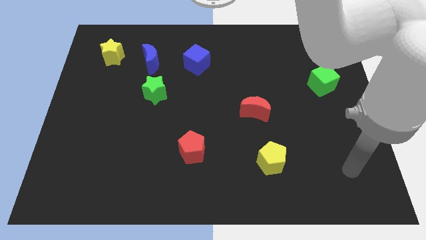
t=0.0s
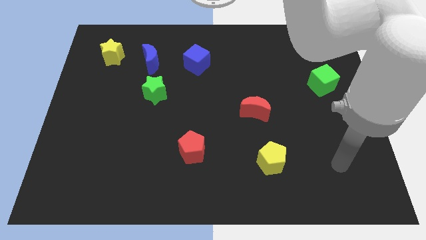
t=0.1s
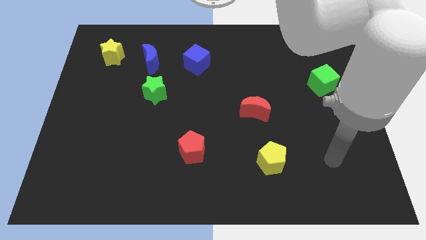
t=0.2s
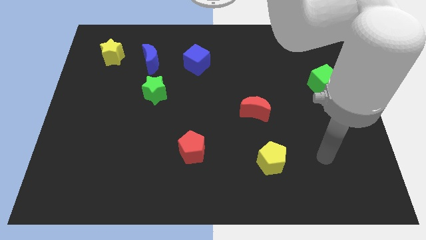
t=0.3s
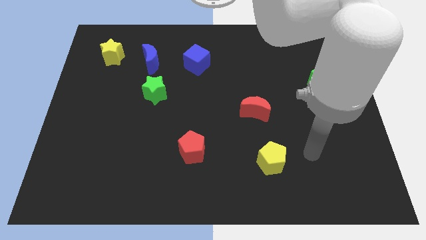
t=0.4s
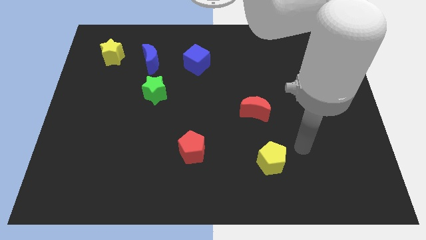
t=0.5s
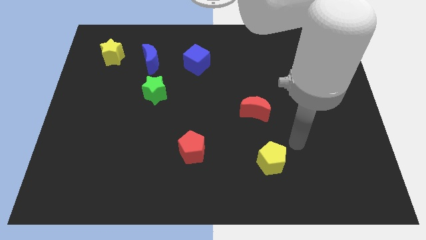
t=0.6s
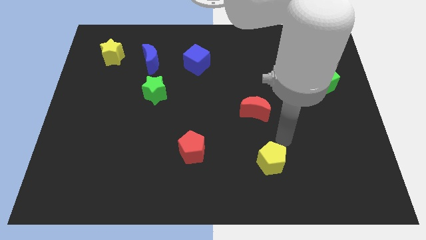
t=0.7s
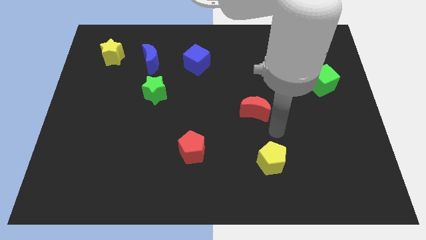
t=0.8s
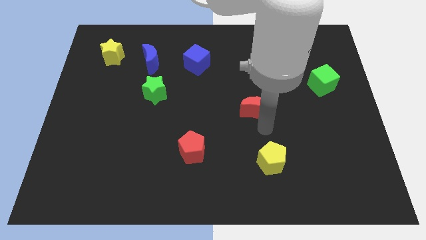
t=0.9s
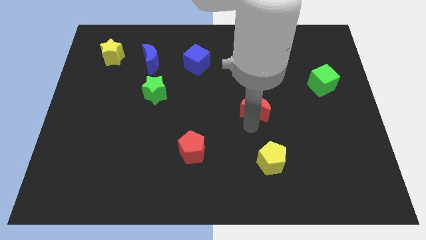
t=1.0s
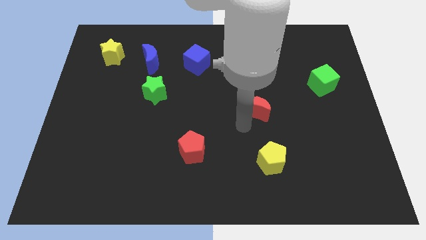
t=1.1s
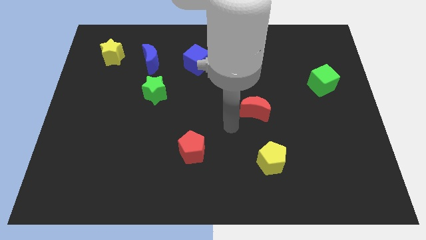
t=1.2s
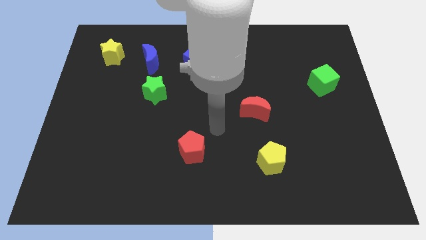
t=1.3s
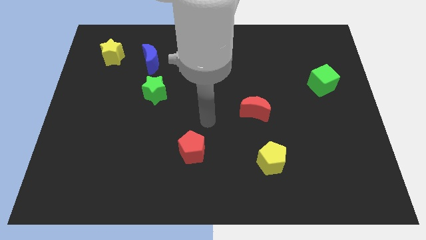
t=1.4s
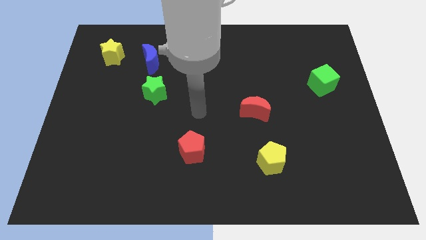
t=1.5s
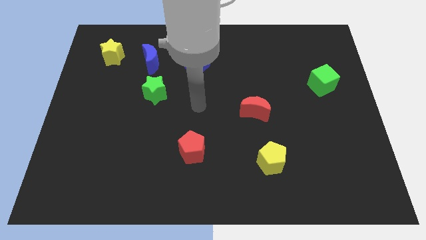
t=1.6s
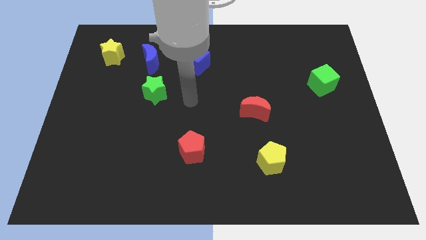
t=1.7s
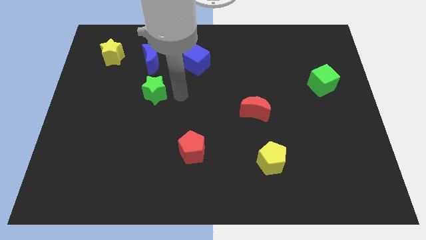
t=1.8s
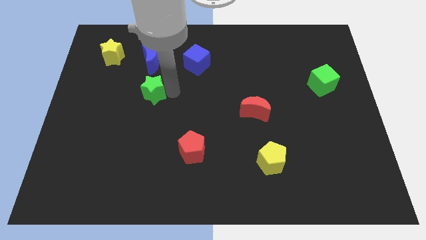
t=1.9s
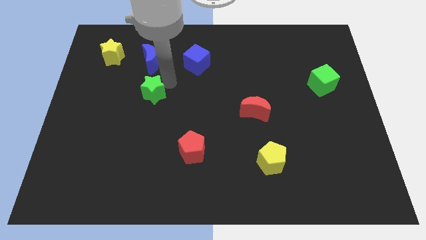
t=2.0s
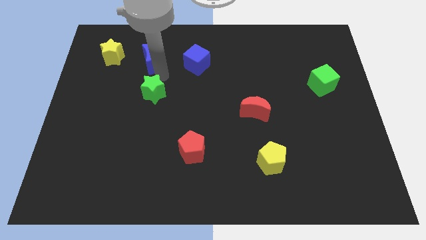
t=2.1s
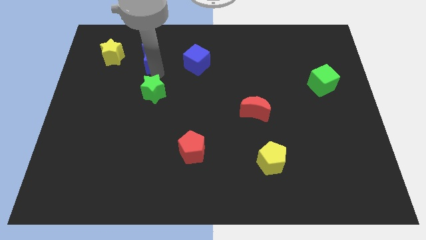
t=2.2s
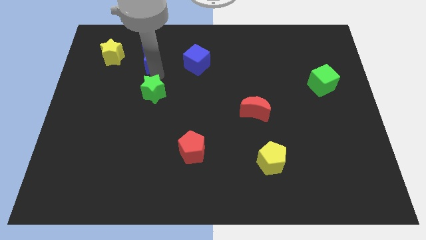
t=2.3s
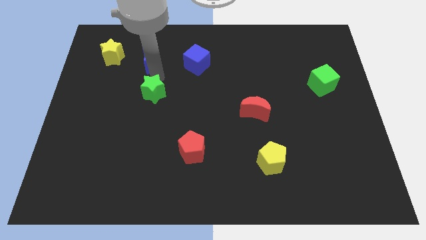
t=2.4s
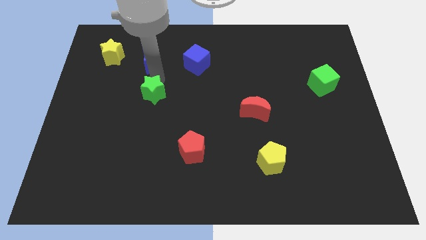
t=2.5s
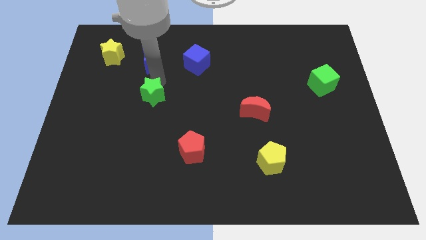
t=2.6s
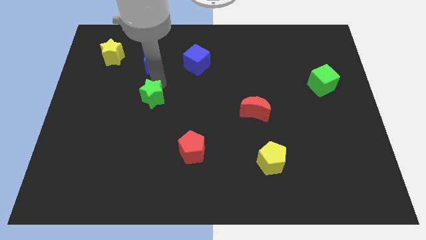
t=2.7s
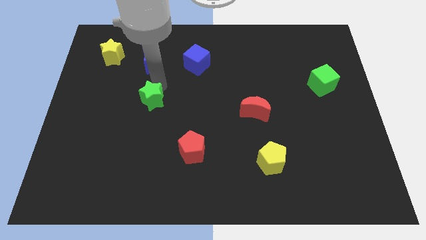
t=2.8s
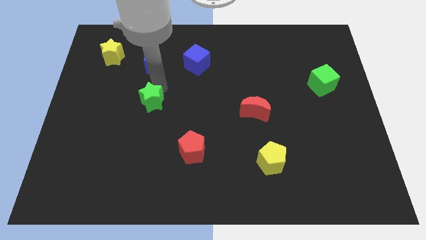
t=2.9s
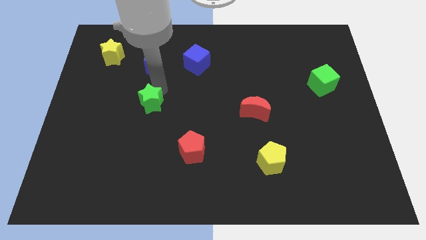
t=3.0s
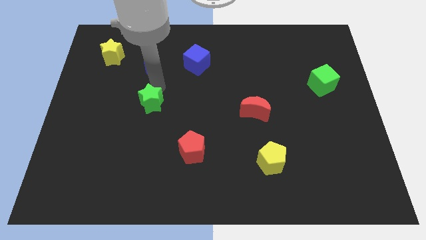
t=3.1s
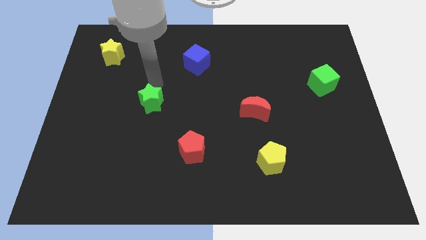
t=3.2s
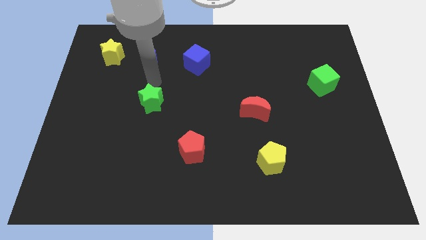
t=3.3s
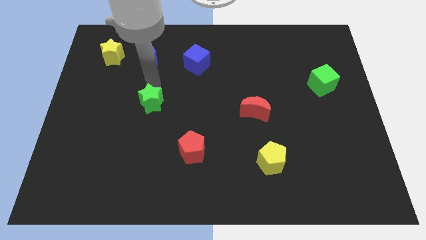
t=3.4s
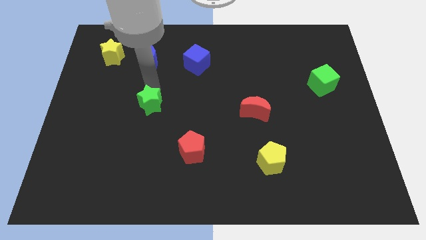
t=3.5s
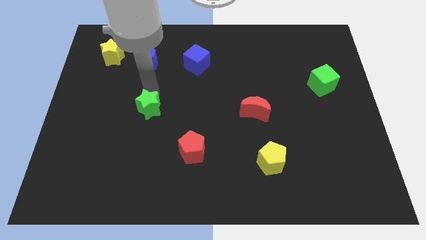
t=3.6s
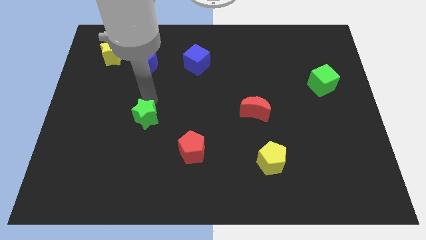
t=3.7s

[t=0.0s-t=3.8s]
slide the green star downwards somewhat

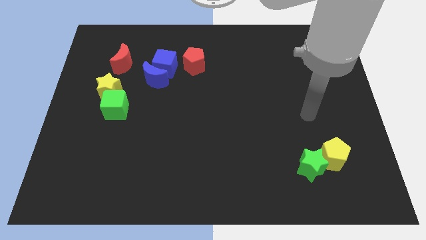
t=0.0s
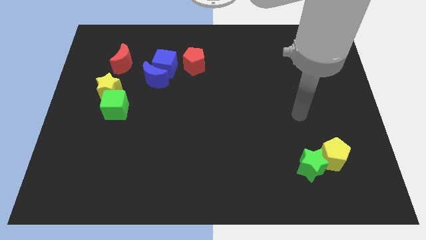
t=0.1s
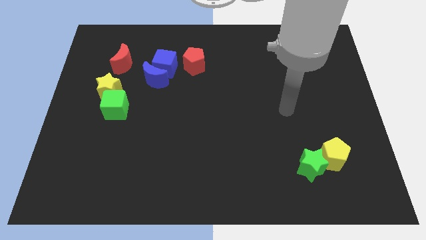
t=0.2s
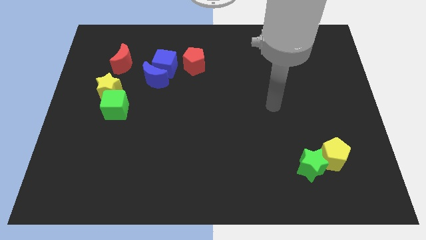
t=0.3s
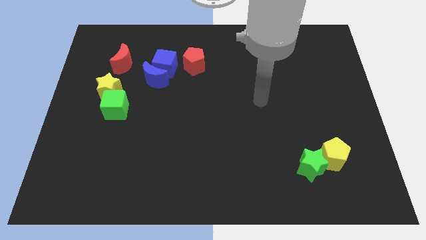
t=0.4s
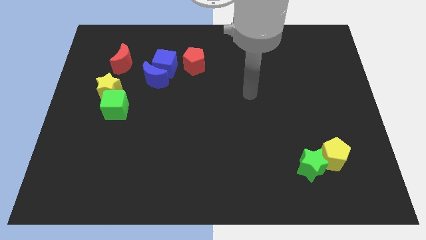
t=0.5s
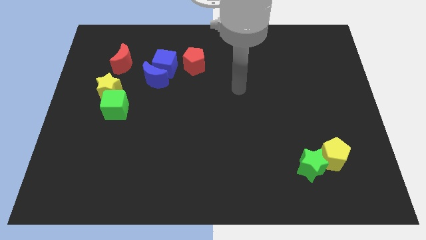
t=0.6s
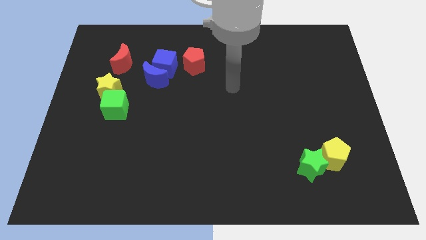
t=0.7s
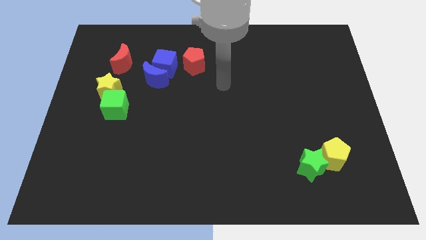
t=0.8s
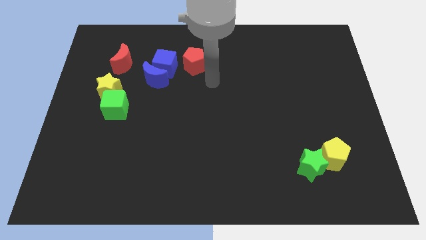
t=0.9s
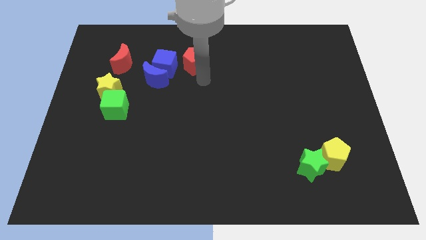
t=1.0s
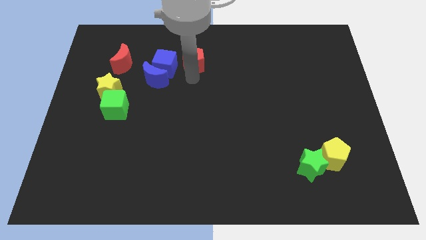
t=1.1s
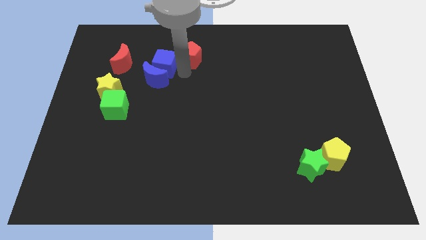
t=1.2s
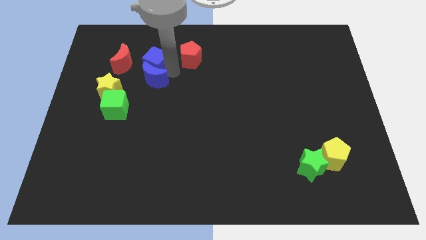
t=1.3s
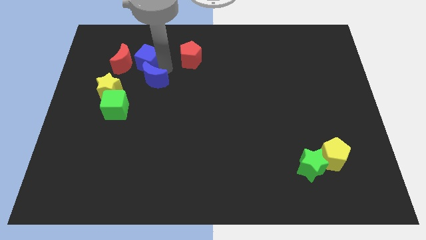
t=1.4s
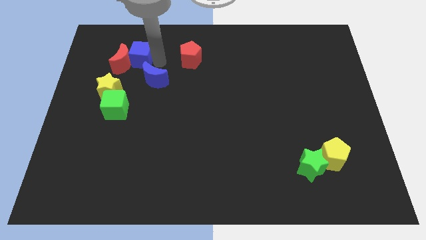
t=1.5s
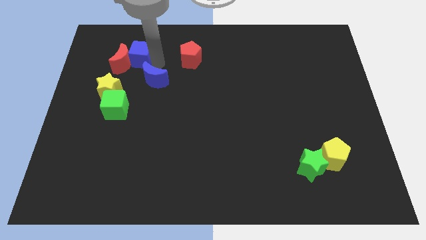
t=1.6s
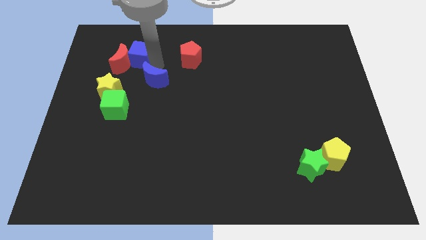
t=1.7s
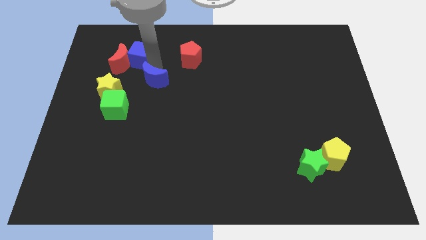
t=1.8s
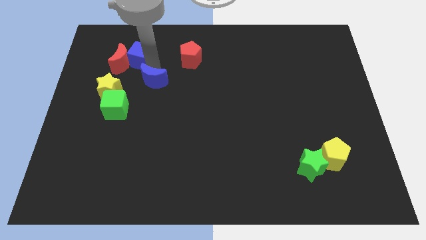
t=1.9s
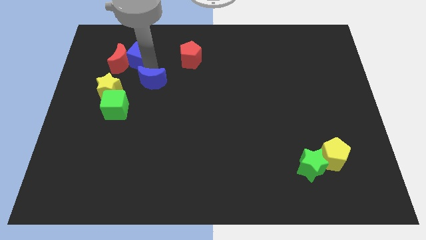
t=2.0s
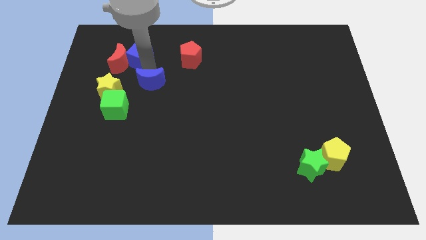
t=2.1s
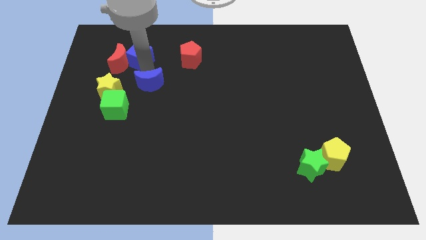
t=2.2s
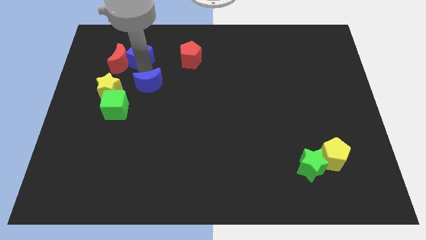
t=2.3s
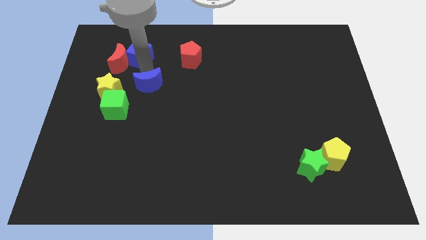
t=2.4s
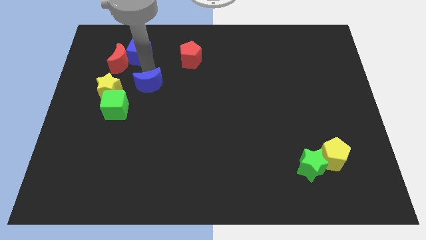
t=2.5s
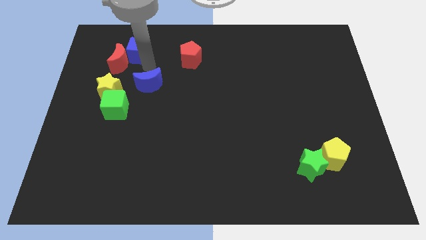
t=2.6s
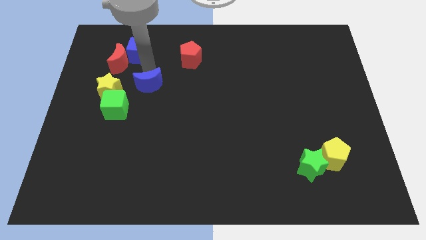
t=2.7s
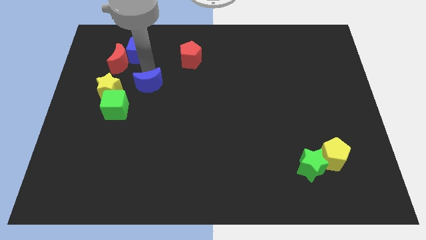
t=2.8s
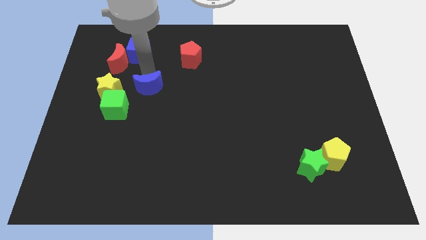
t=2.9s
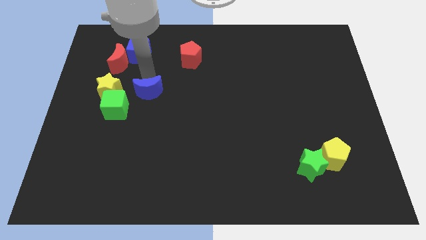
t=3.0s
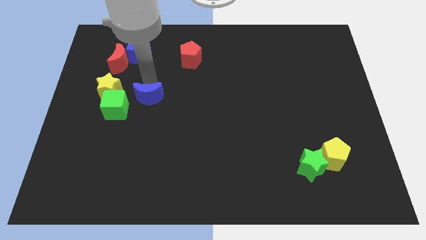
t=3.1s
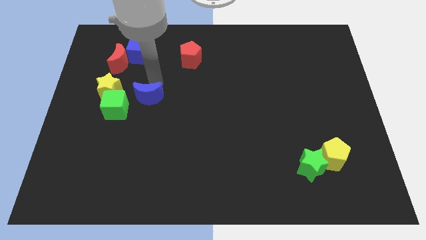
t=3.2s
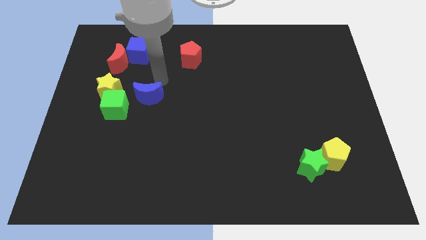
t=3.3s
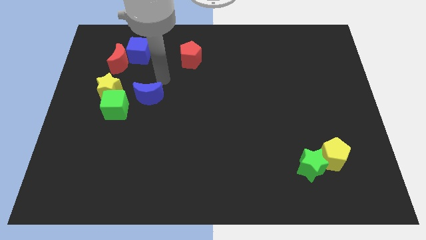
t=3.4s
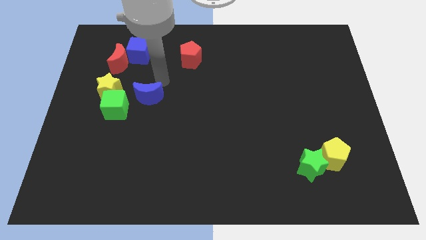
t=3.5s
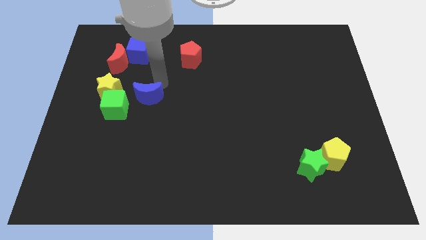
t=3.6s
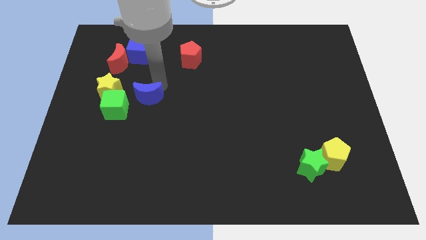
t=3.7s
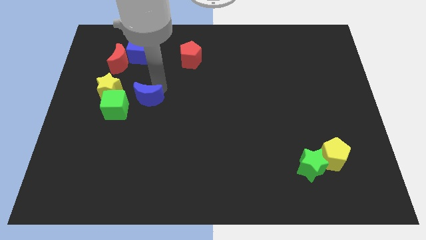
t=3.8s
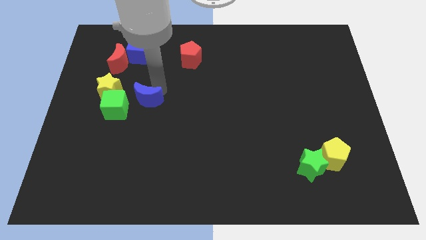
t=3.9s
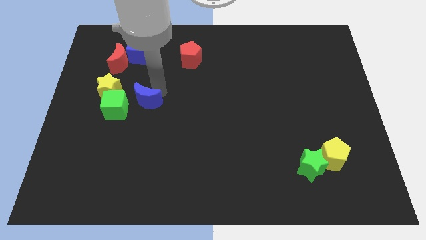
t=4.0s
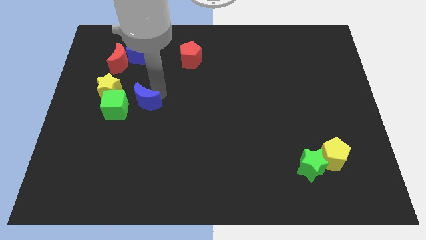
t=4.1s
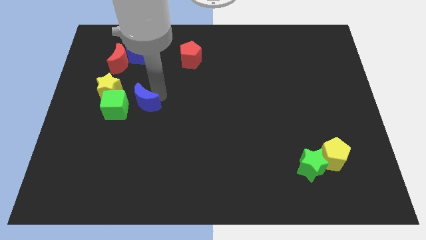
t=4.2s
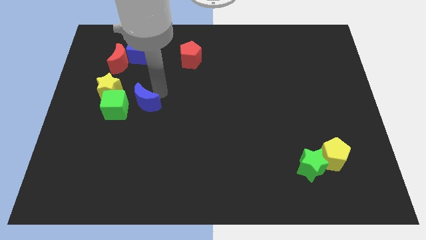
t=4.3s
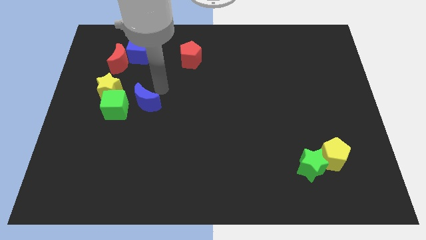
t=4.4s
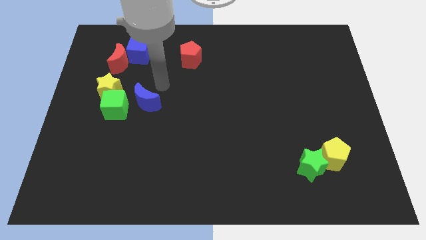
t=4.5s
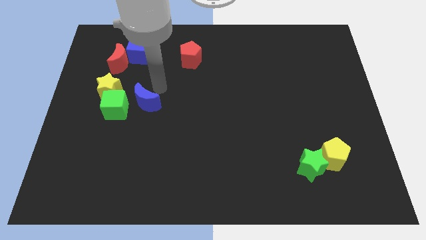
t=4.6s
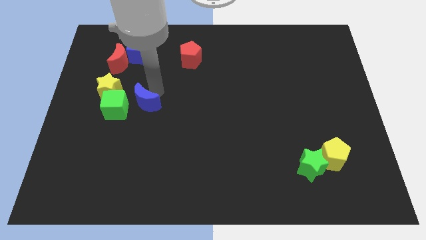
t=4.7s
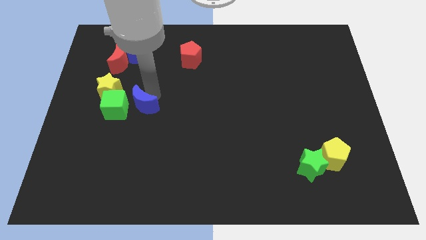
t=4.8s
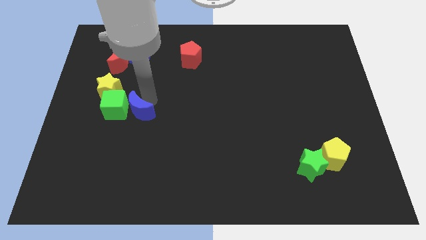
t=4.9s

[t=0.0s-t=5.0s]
push the blue moon a little bit diagonally down and left
